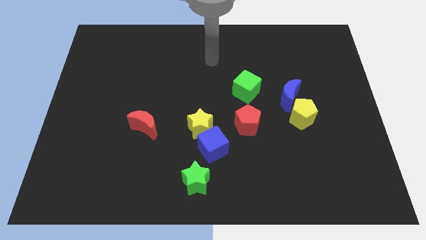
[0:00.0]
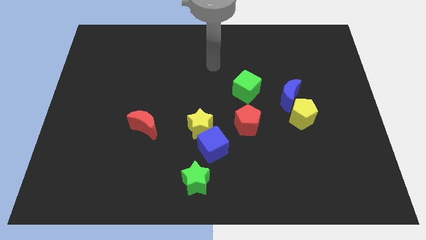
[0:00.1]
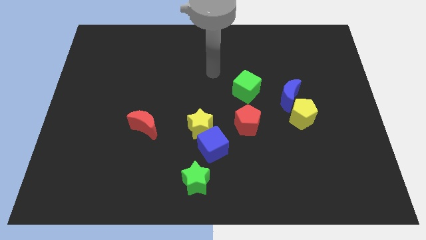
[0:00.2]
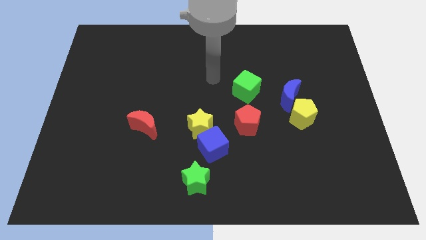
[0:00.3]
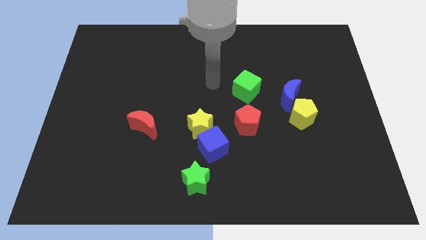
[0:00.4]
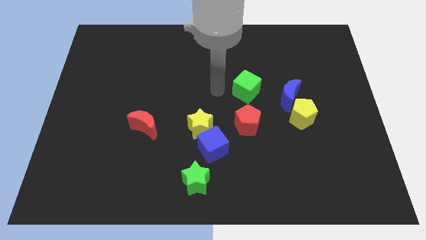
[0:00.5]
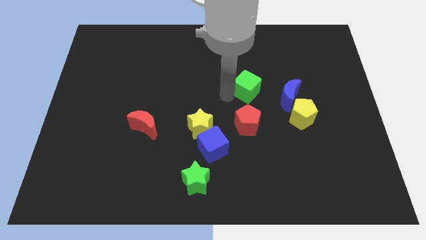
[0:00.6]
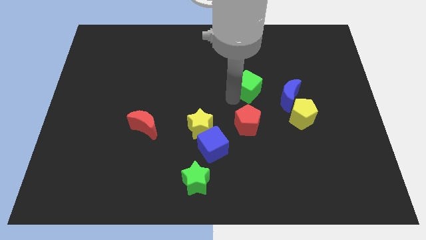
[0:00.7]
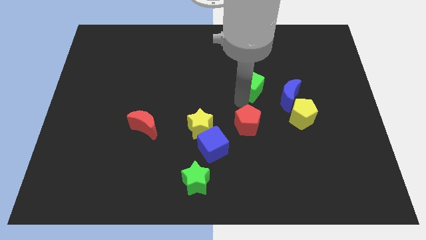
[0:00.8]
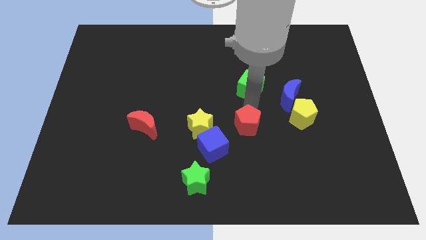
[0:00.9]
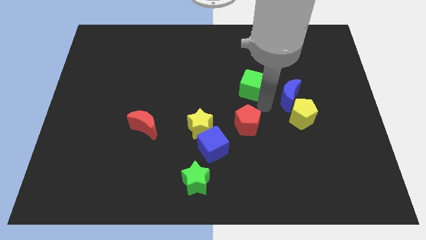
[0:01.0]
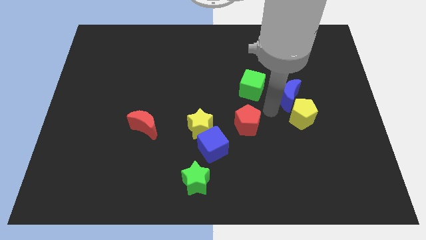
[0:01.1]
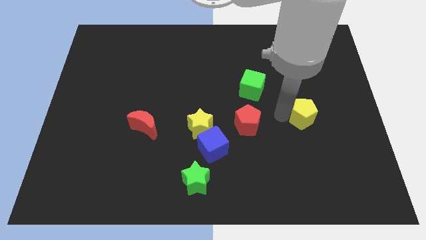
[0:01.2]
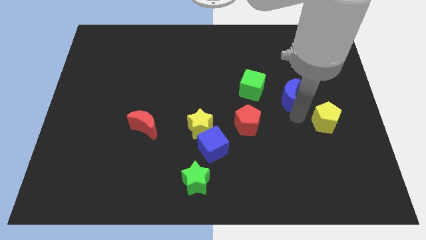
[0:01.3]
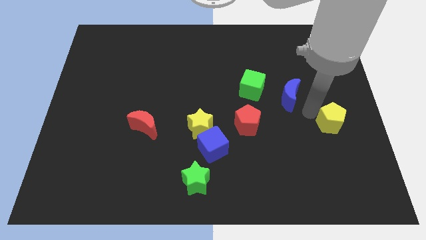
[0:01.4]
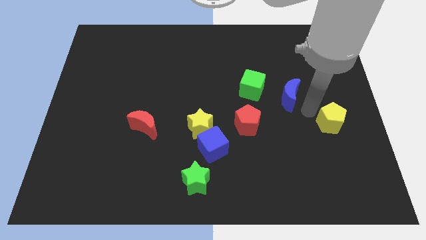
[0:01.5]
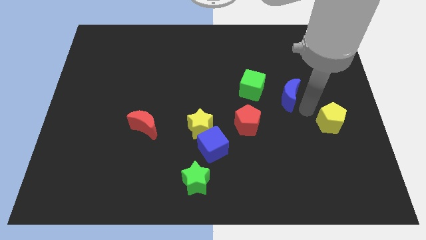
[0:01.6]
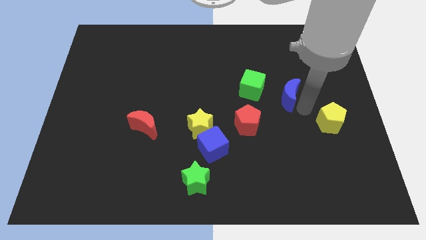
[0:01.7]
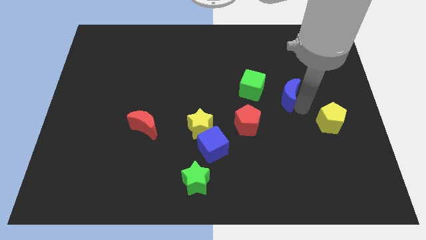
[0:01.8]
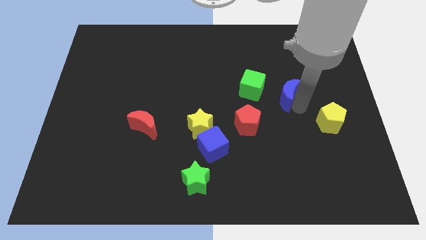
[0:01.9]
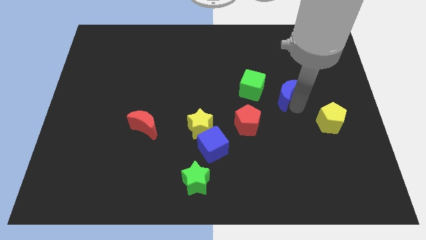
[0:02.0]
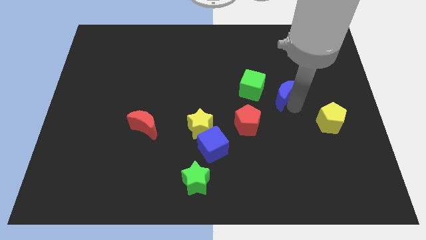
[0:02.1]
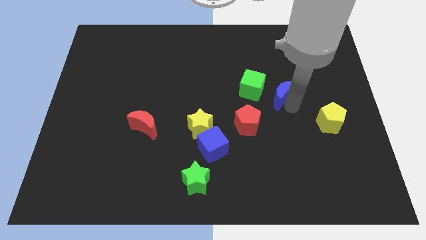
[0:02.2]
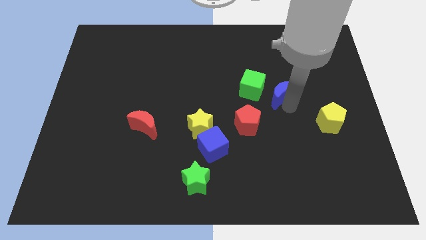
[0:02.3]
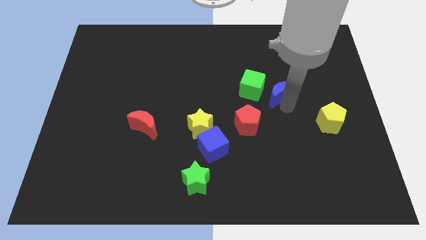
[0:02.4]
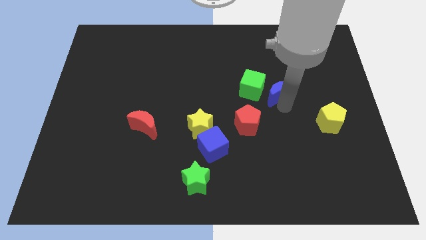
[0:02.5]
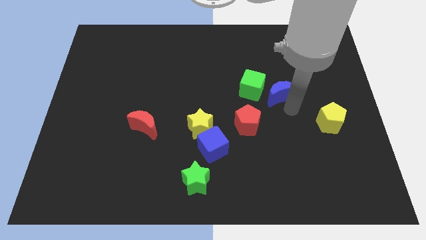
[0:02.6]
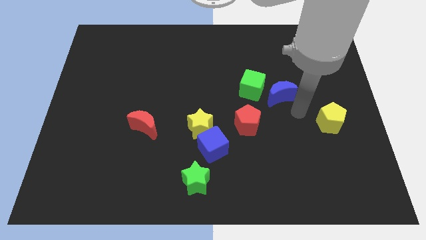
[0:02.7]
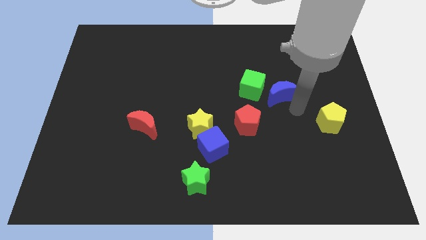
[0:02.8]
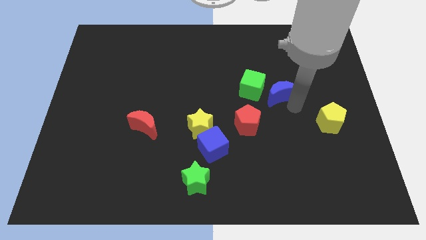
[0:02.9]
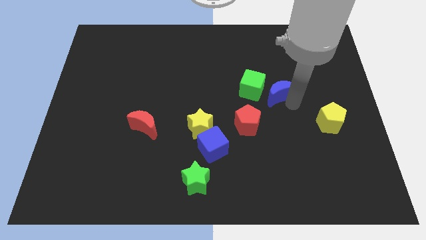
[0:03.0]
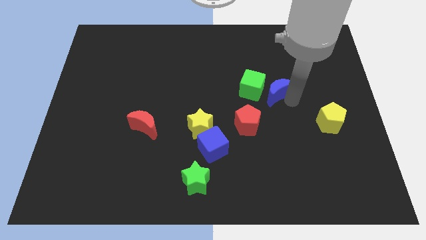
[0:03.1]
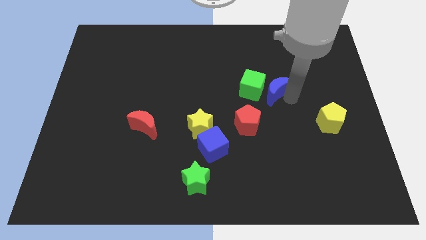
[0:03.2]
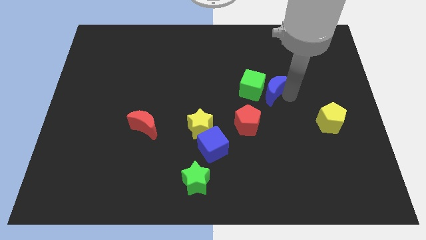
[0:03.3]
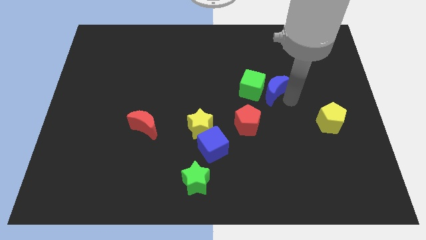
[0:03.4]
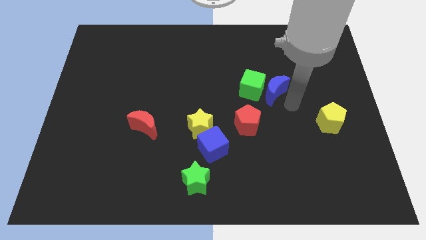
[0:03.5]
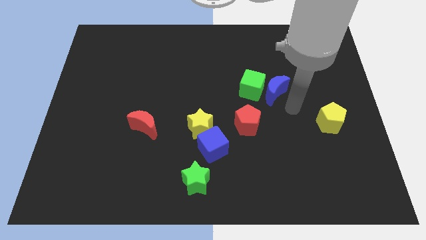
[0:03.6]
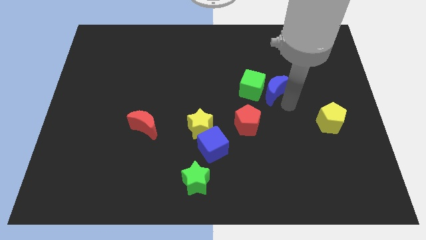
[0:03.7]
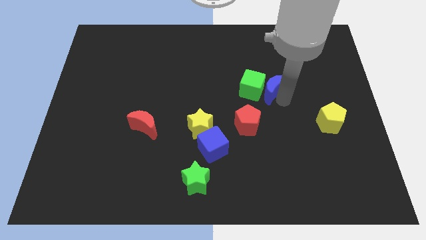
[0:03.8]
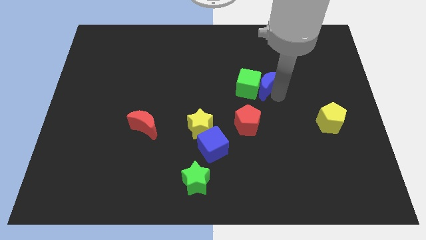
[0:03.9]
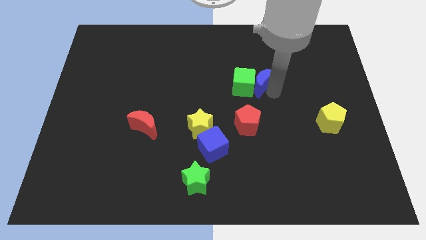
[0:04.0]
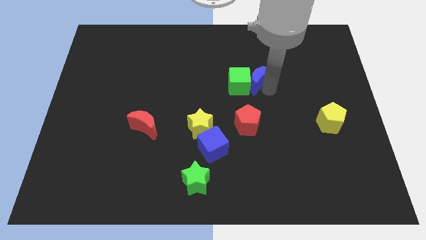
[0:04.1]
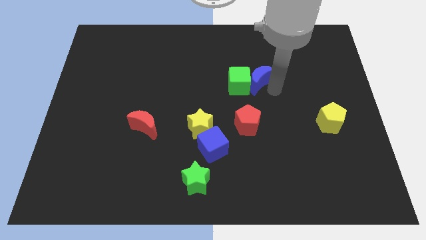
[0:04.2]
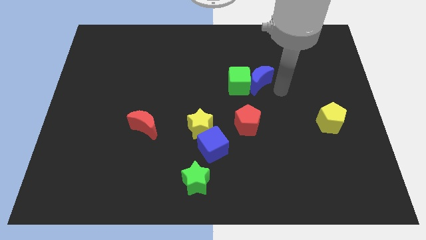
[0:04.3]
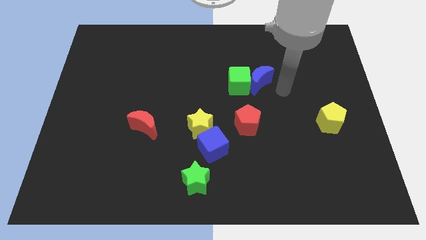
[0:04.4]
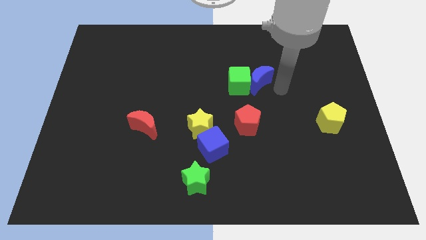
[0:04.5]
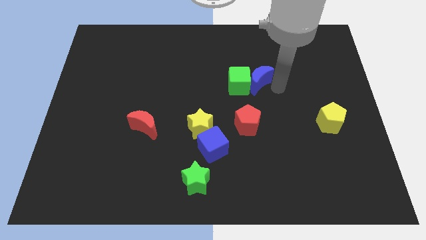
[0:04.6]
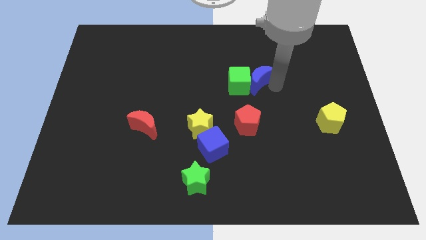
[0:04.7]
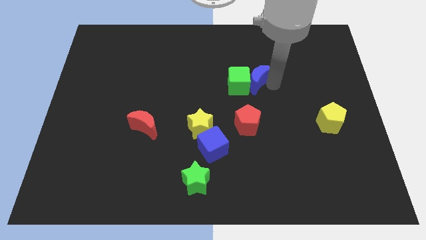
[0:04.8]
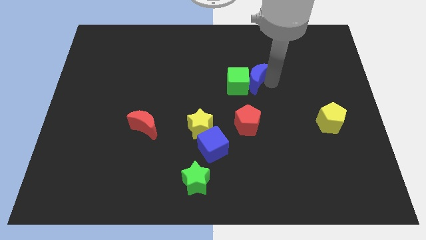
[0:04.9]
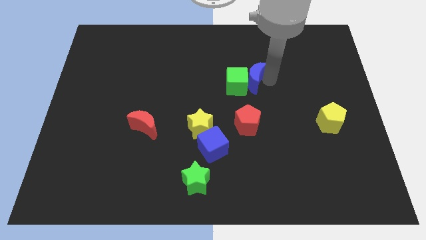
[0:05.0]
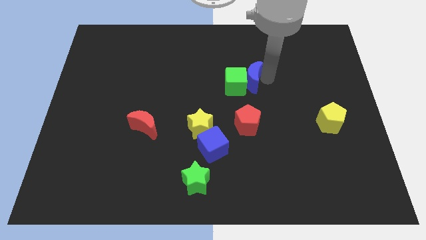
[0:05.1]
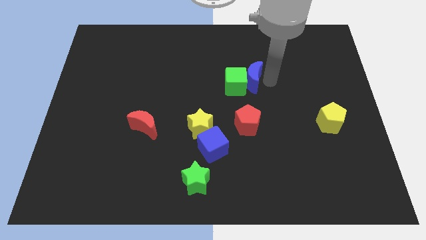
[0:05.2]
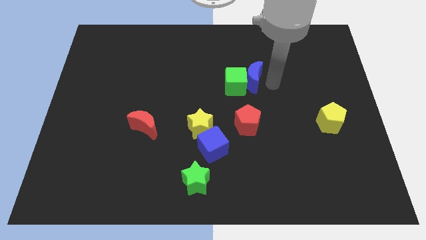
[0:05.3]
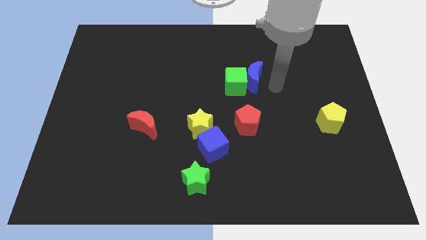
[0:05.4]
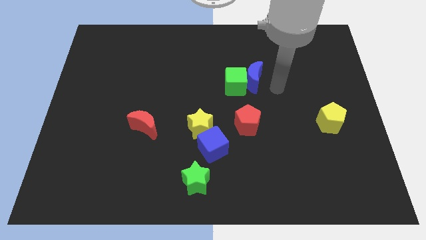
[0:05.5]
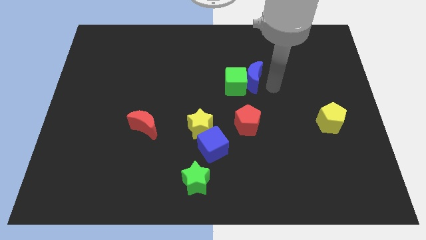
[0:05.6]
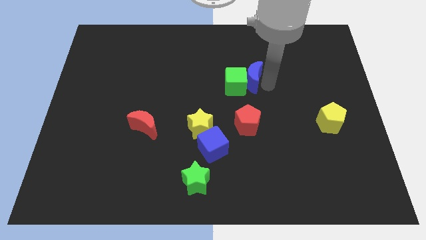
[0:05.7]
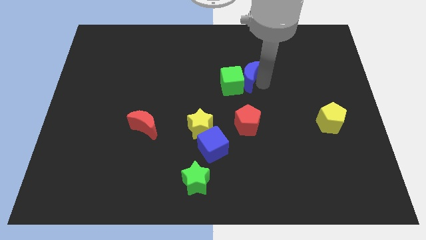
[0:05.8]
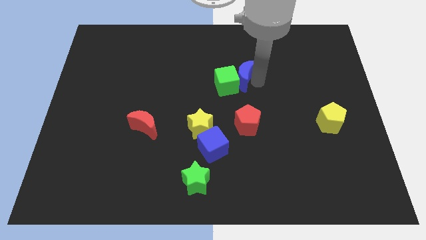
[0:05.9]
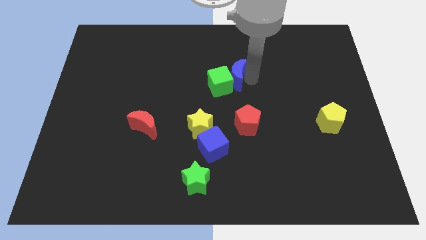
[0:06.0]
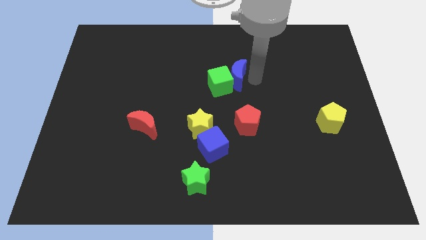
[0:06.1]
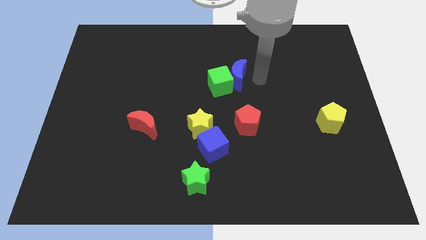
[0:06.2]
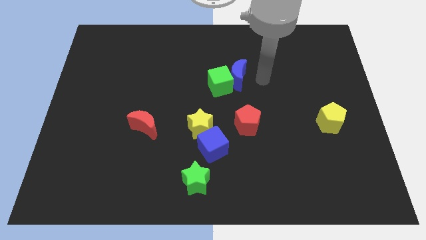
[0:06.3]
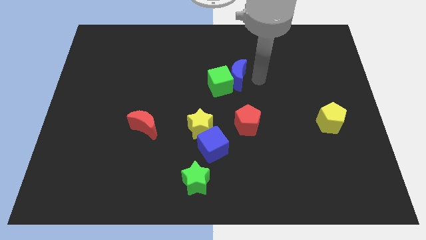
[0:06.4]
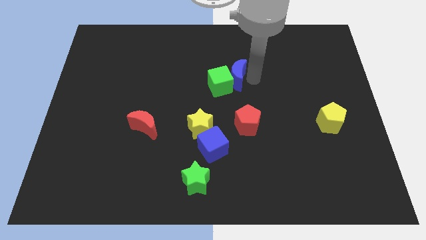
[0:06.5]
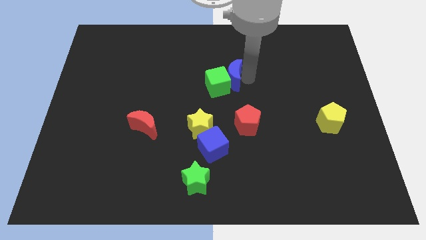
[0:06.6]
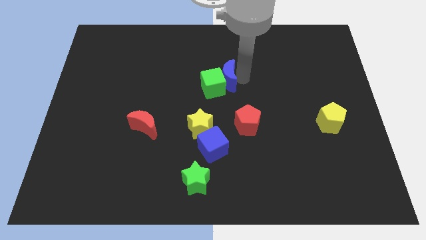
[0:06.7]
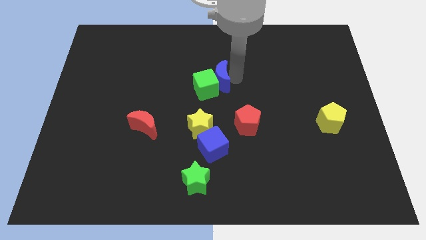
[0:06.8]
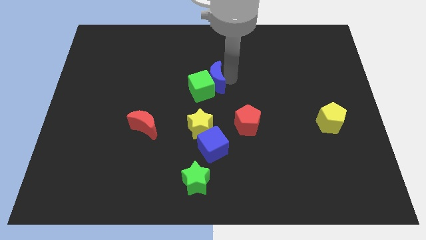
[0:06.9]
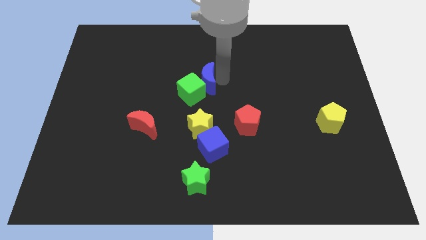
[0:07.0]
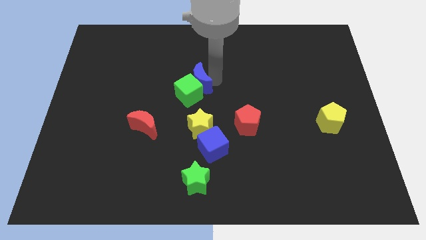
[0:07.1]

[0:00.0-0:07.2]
move the blue moon to the left

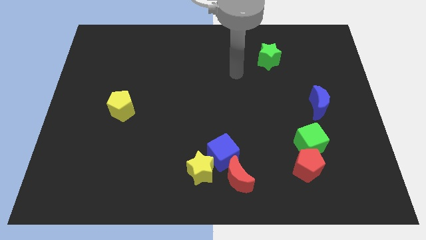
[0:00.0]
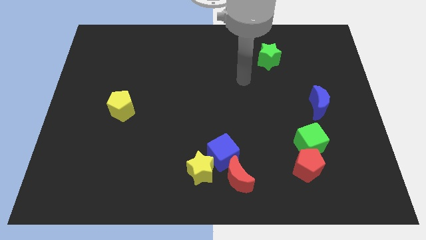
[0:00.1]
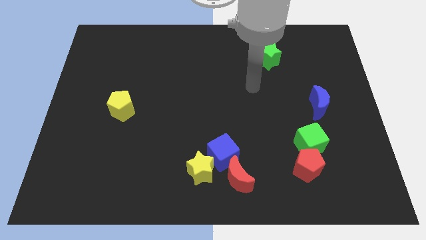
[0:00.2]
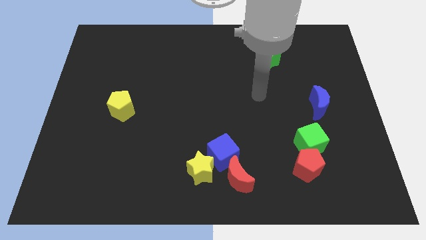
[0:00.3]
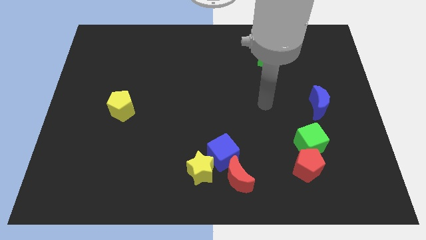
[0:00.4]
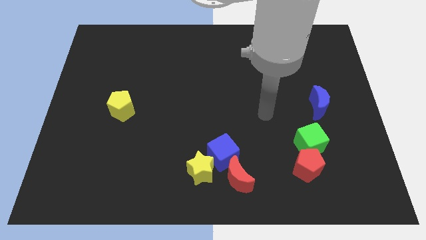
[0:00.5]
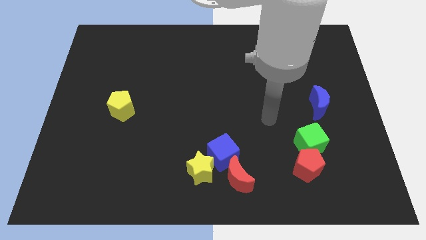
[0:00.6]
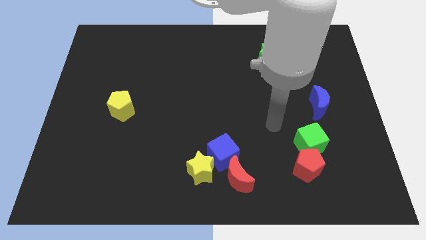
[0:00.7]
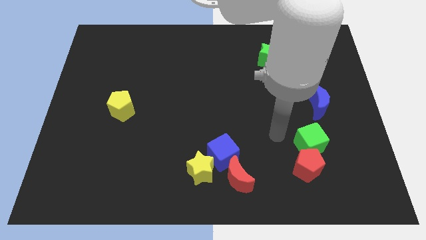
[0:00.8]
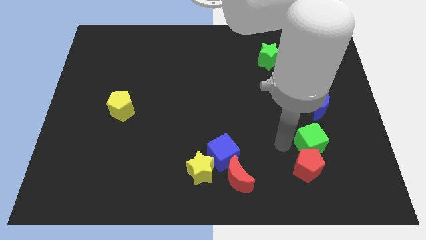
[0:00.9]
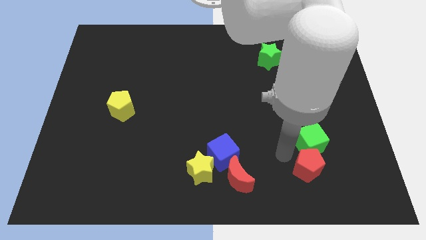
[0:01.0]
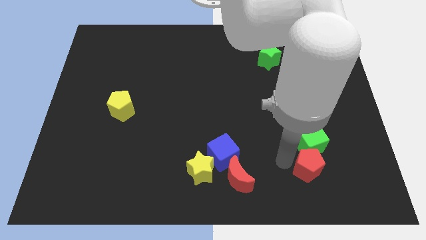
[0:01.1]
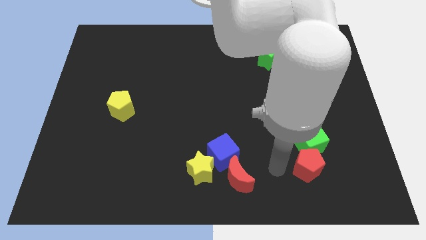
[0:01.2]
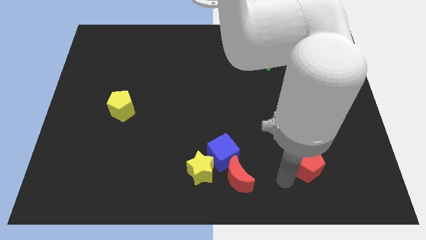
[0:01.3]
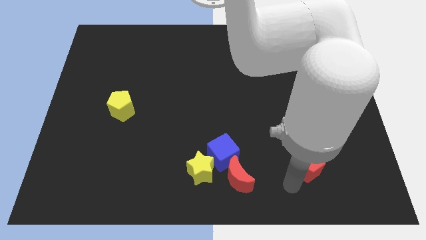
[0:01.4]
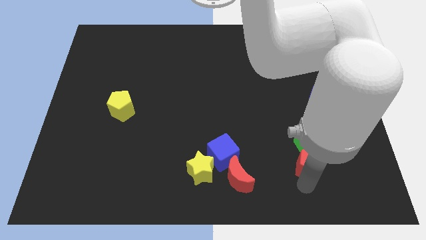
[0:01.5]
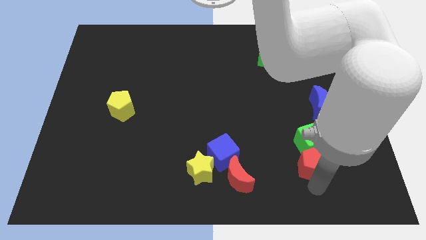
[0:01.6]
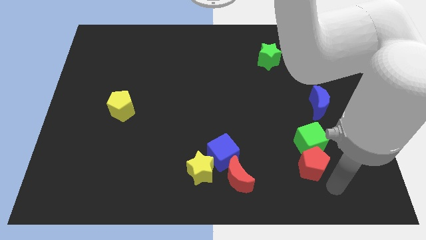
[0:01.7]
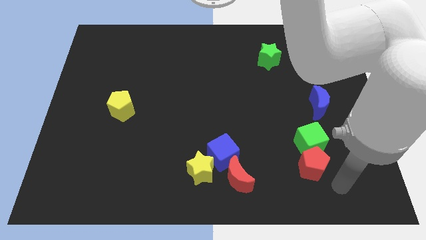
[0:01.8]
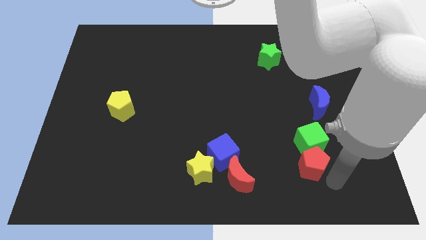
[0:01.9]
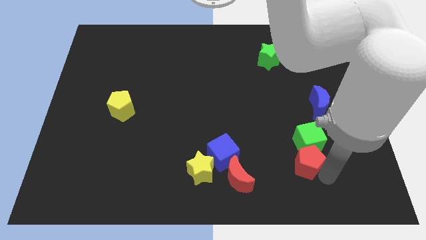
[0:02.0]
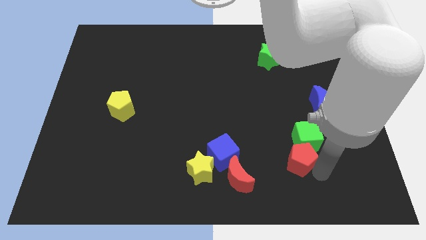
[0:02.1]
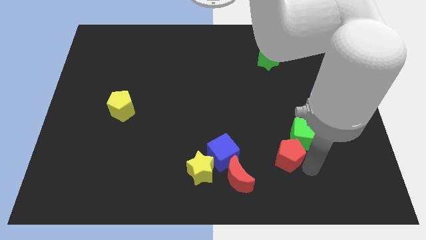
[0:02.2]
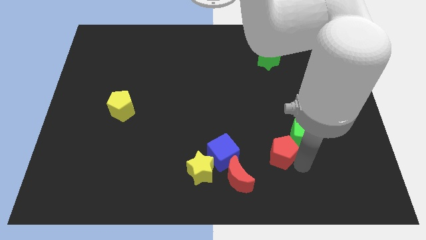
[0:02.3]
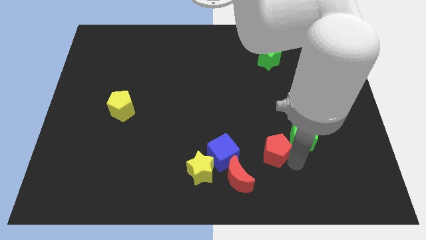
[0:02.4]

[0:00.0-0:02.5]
move the red pentagon up and left slightly
